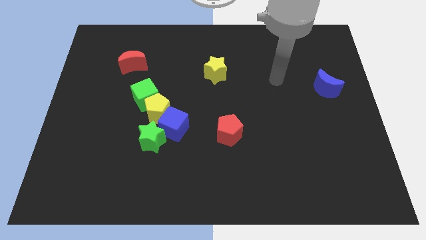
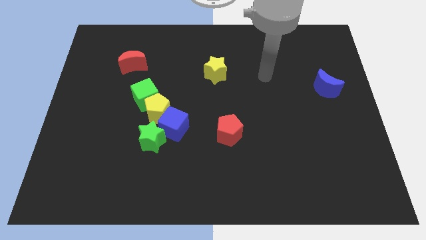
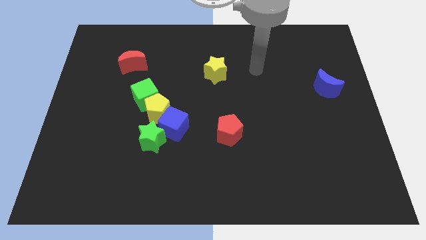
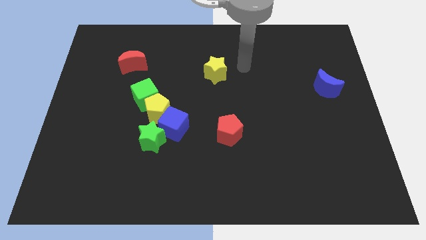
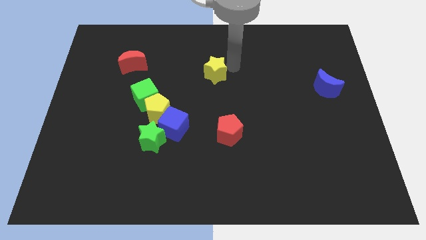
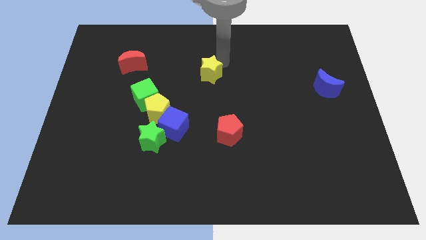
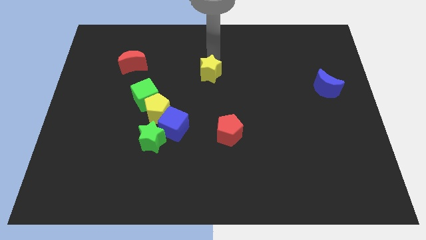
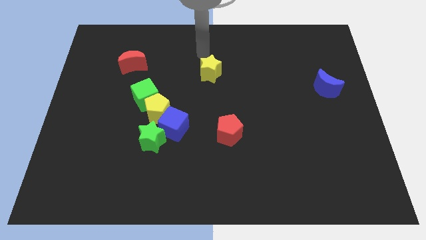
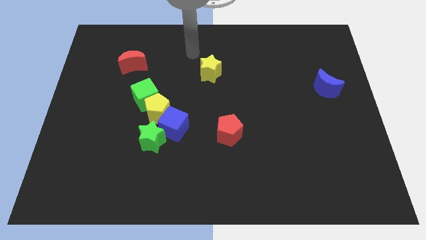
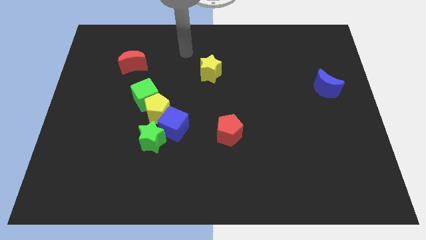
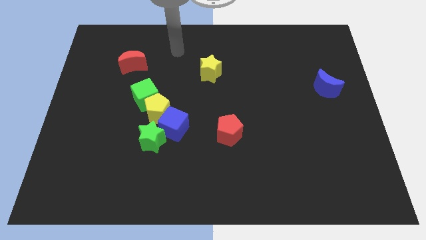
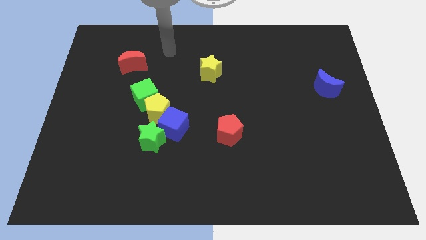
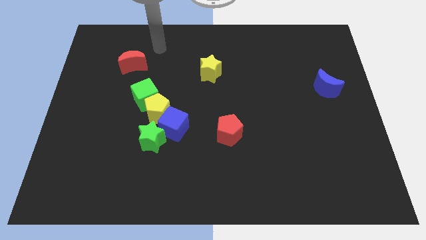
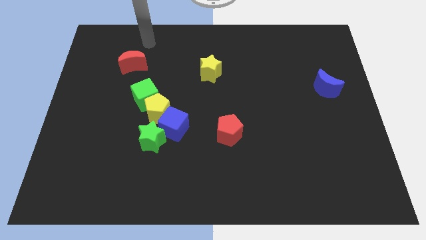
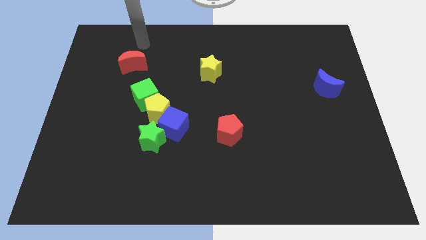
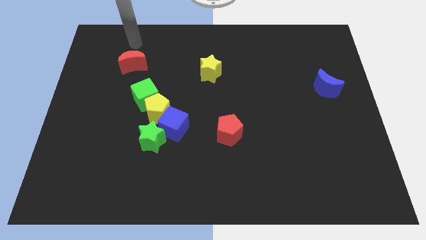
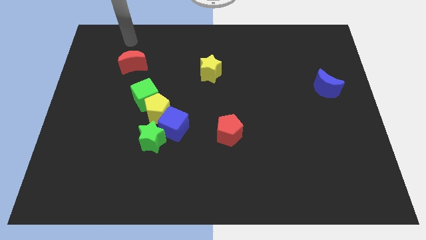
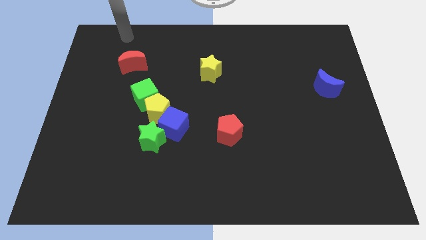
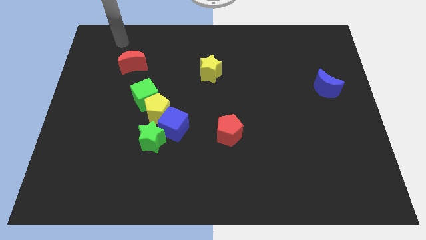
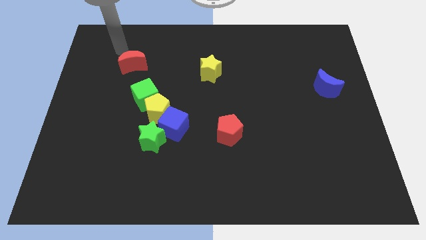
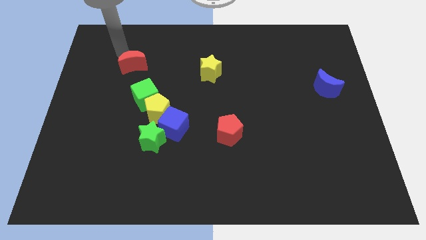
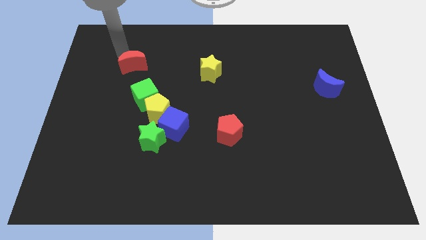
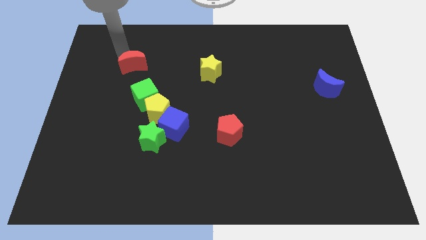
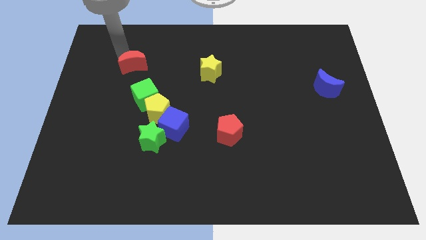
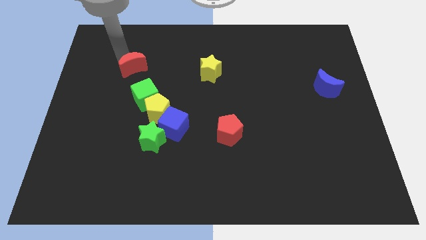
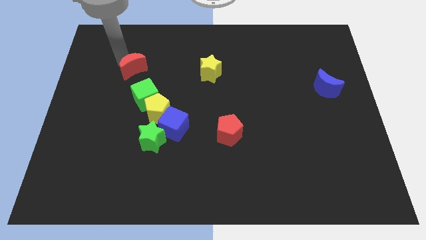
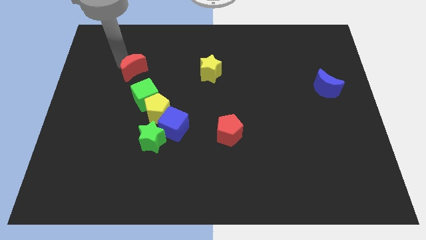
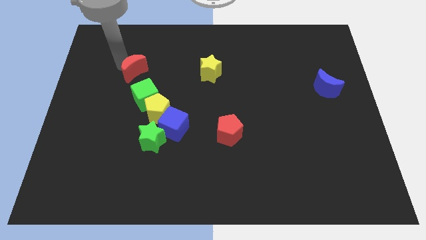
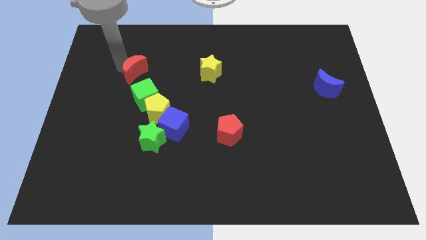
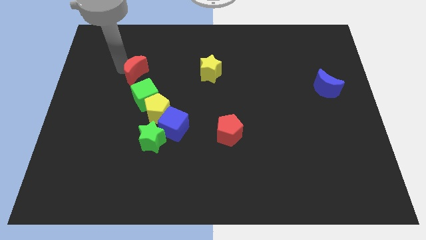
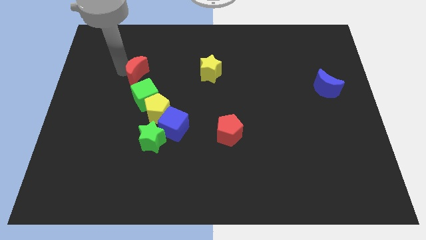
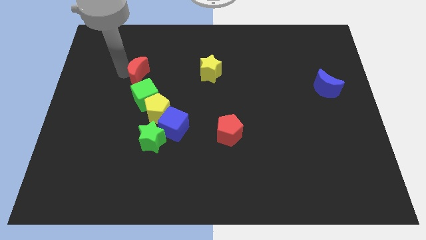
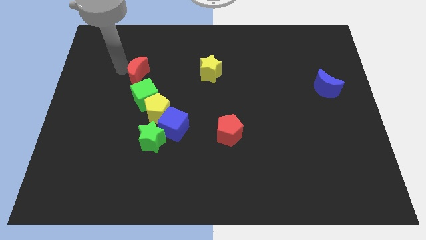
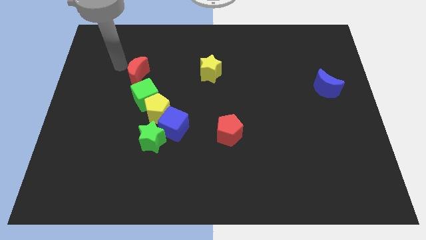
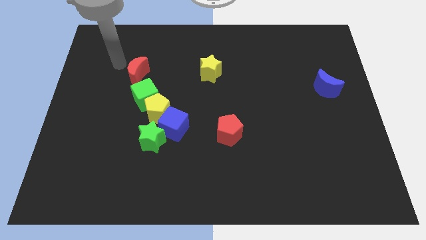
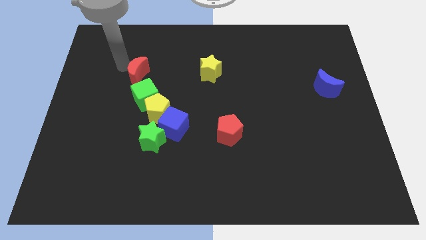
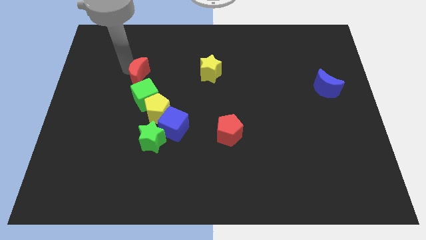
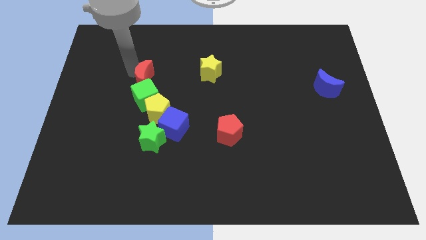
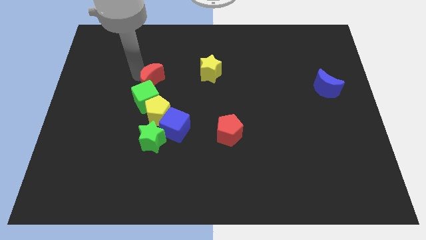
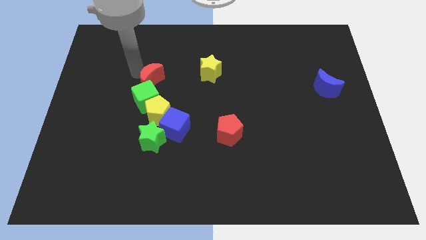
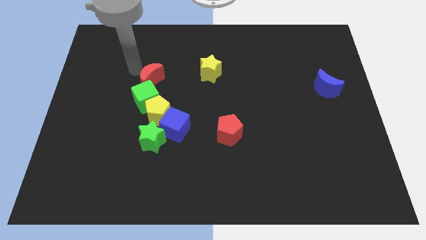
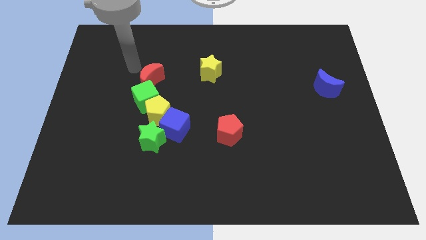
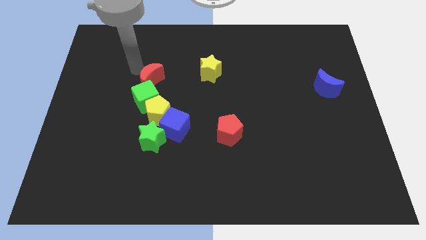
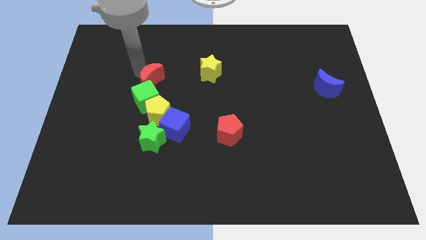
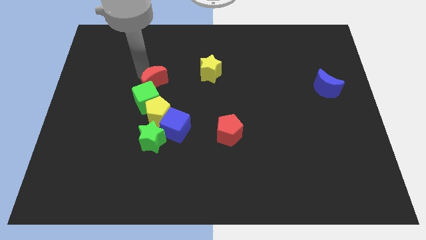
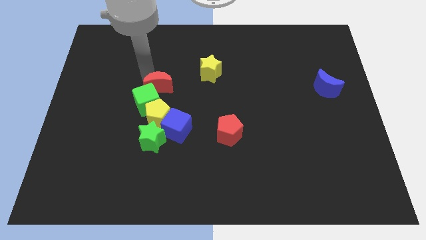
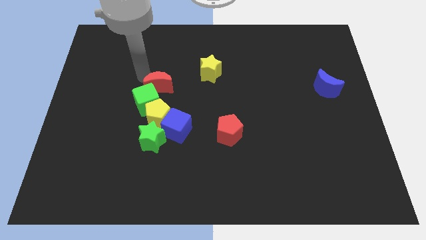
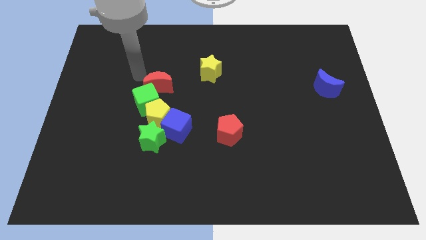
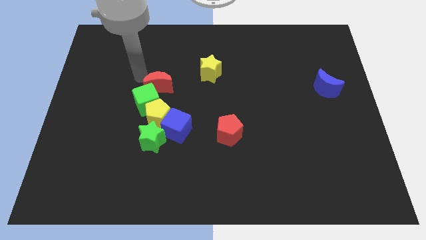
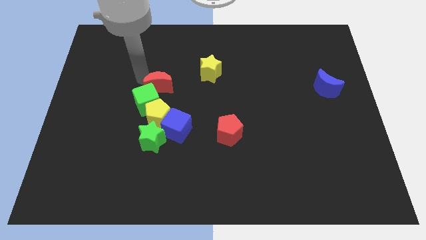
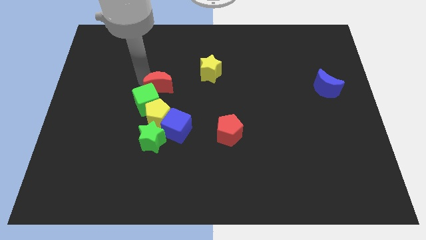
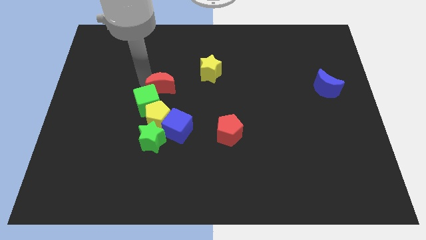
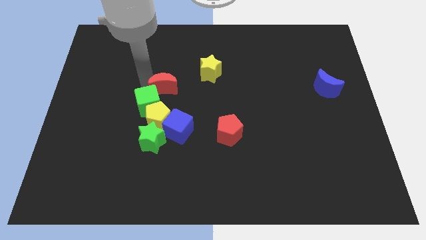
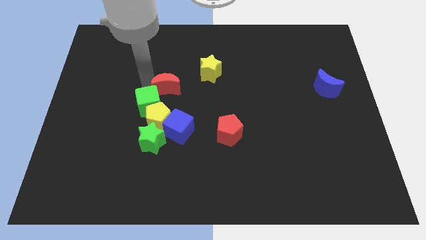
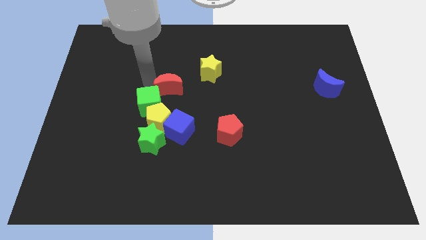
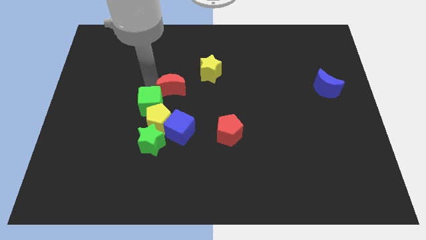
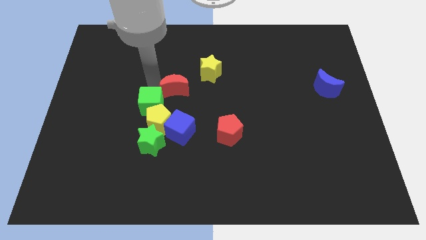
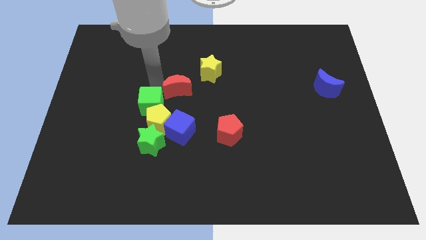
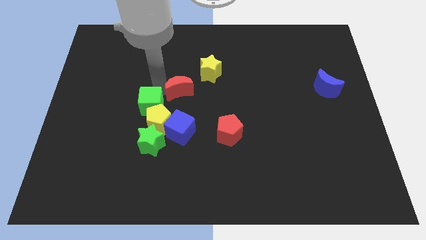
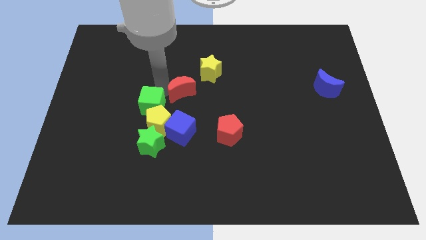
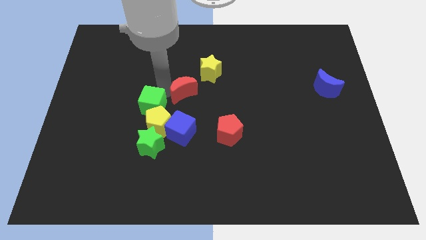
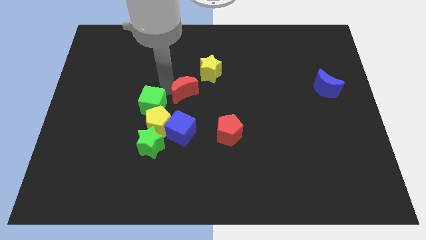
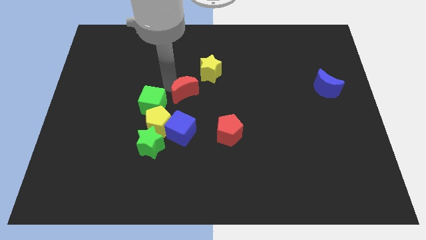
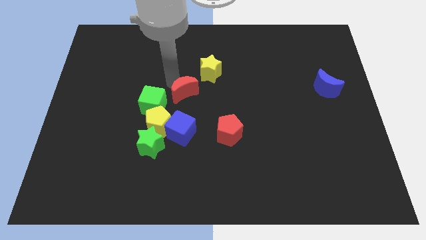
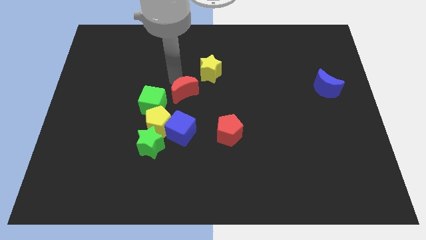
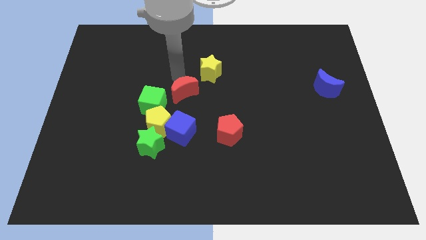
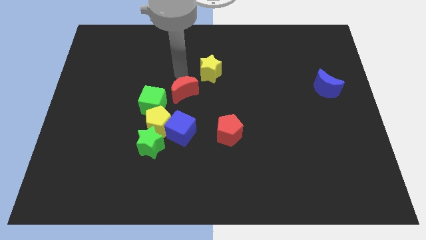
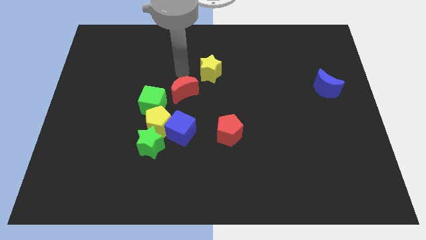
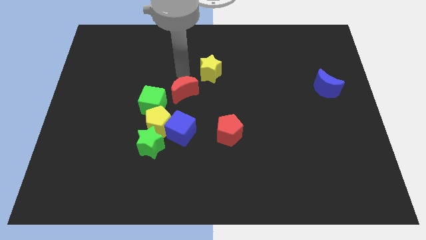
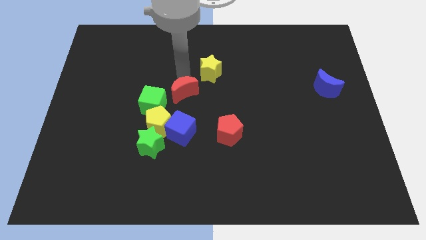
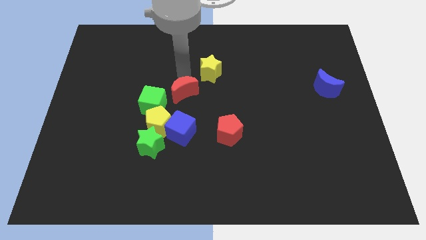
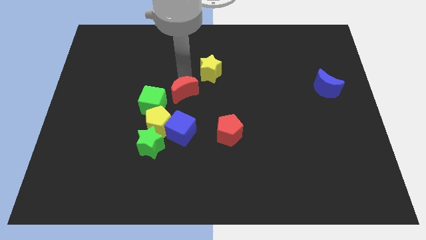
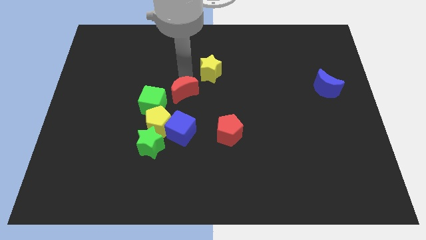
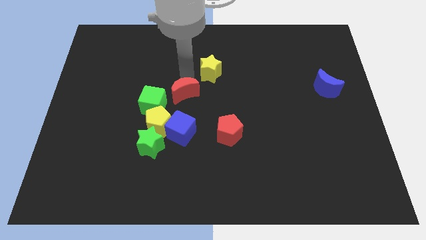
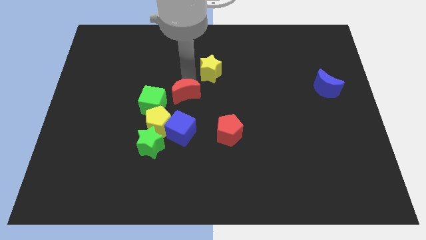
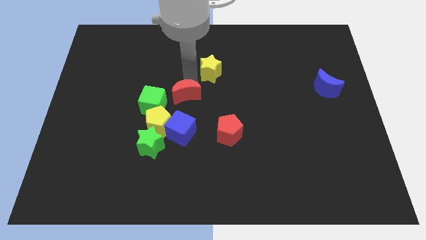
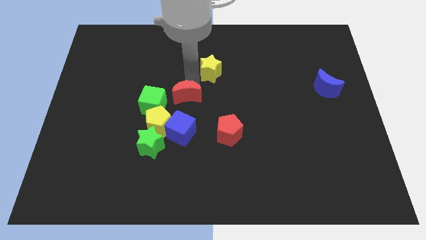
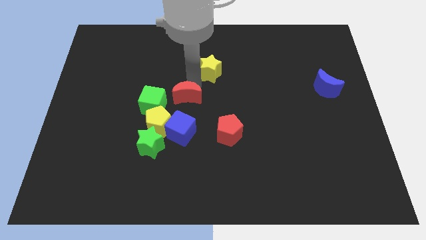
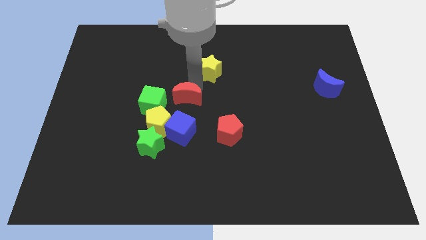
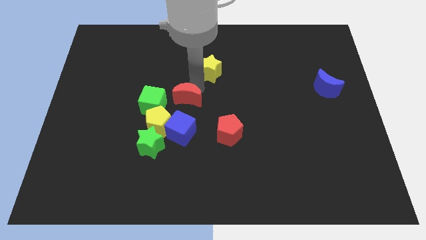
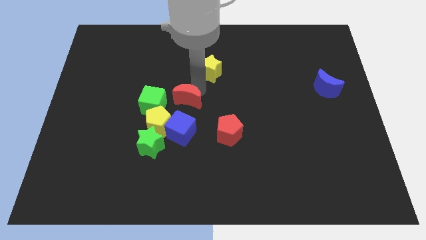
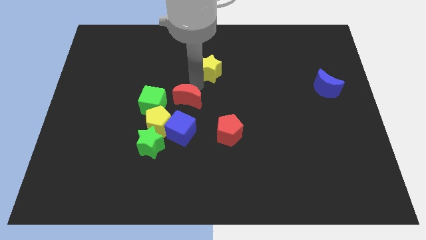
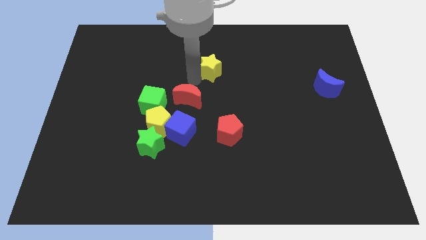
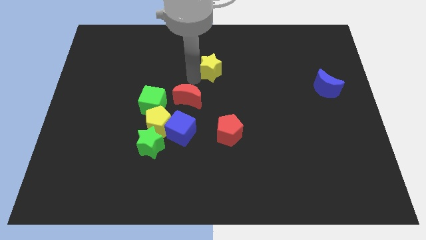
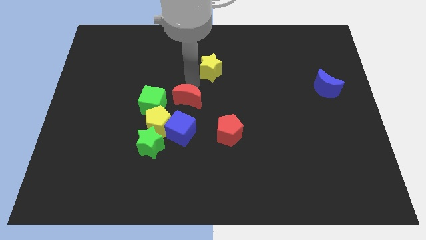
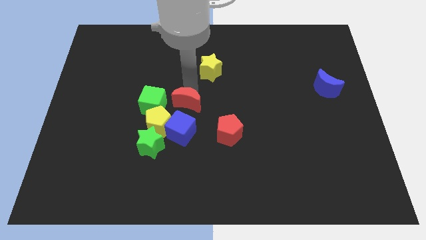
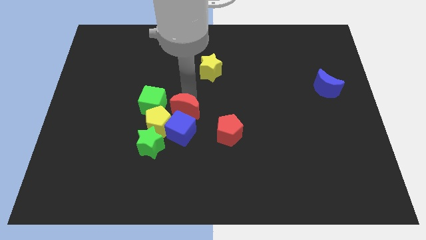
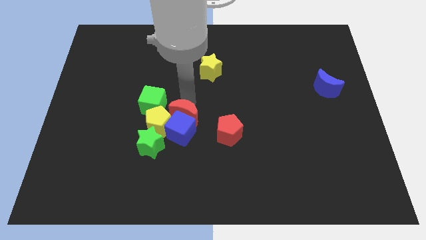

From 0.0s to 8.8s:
slide the red moon towards the blue cube
